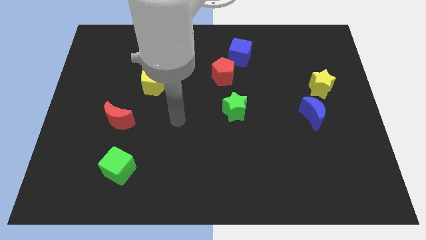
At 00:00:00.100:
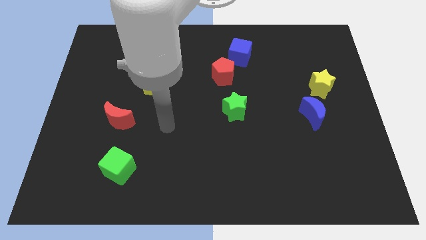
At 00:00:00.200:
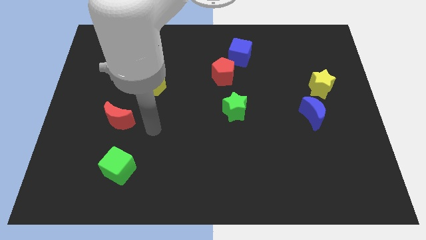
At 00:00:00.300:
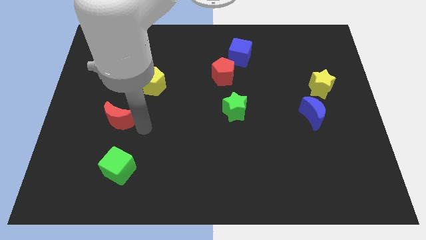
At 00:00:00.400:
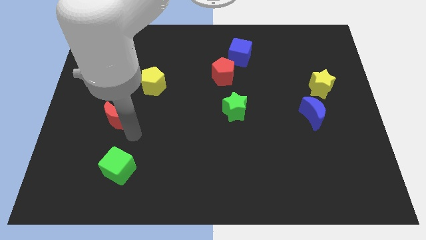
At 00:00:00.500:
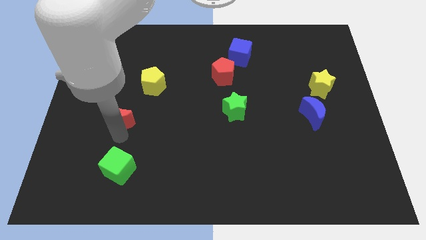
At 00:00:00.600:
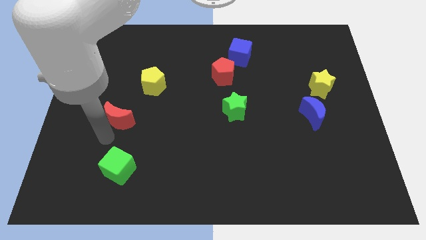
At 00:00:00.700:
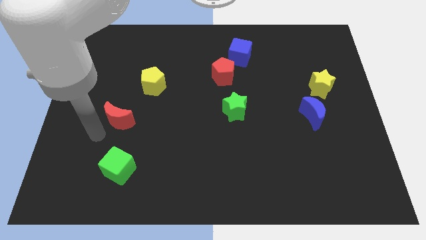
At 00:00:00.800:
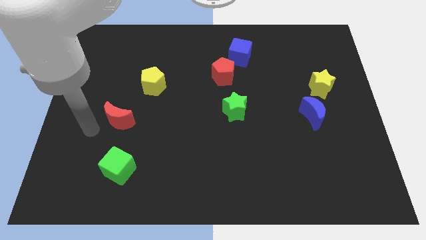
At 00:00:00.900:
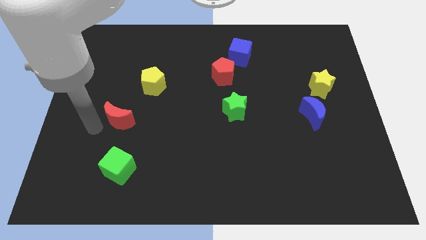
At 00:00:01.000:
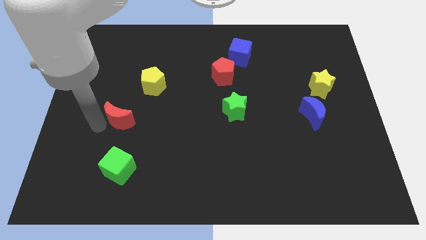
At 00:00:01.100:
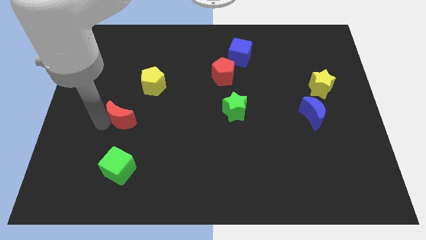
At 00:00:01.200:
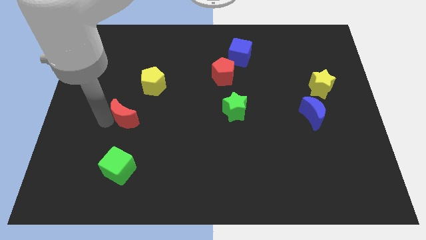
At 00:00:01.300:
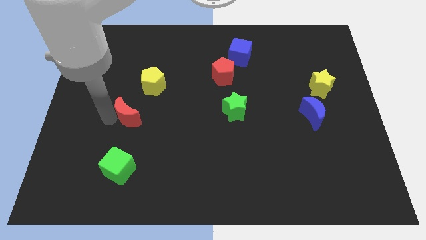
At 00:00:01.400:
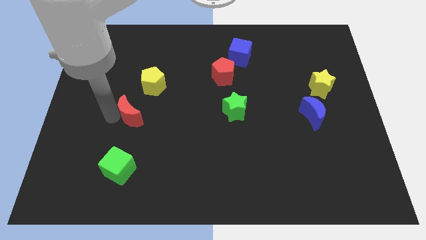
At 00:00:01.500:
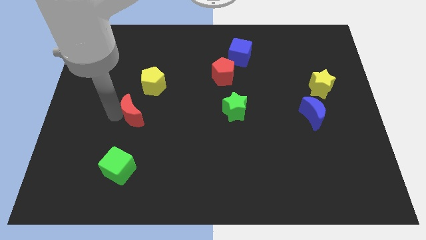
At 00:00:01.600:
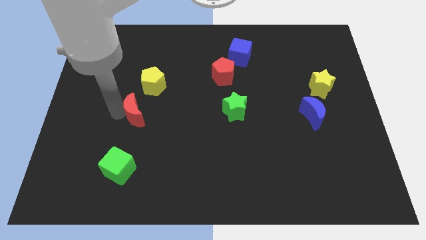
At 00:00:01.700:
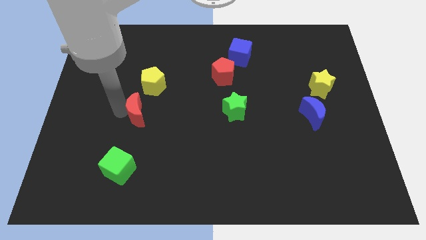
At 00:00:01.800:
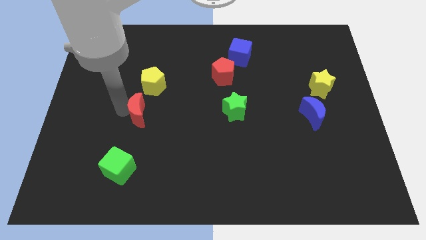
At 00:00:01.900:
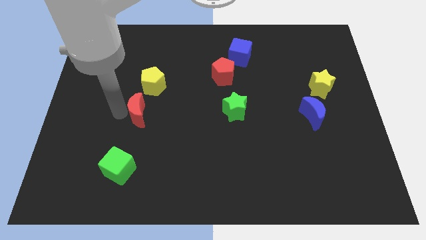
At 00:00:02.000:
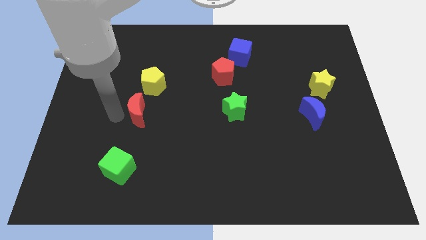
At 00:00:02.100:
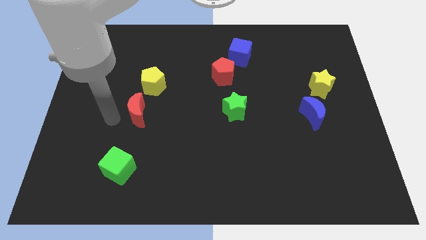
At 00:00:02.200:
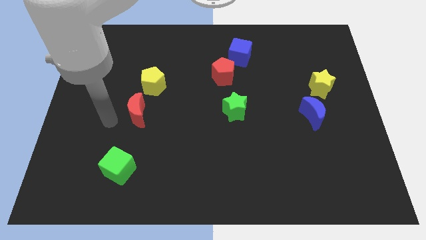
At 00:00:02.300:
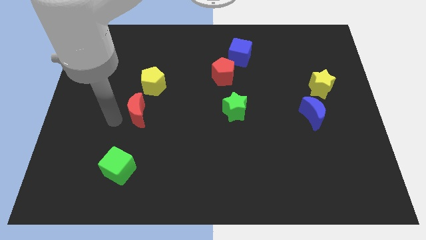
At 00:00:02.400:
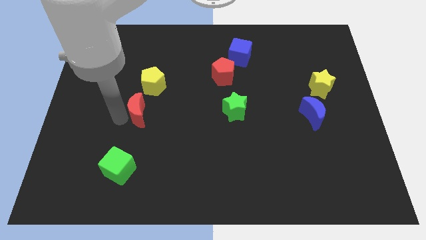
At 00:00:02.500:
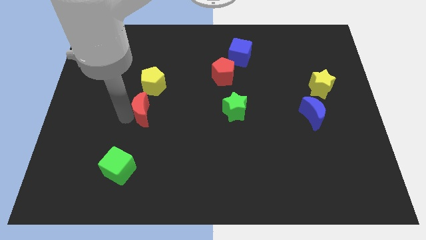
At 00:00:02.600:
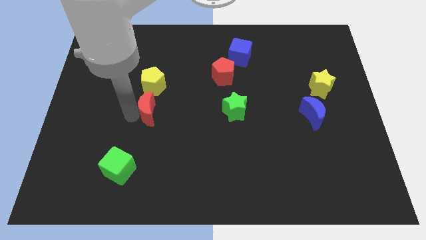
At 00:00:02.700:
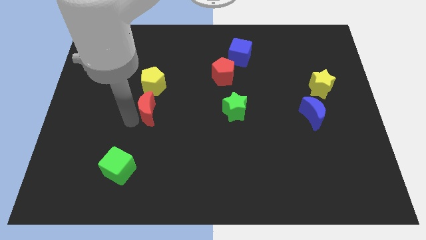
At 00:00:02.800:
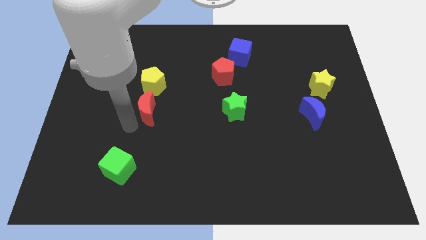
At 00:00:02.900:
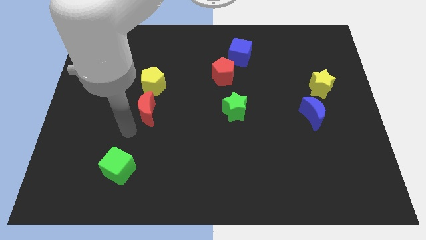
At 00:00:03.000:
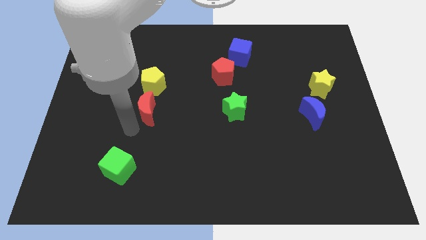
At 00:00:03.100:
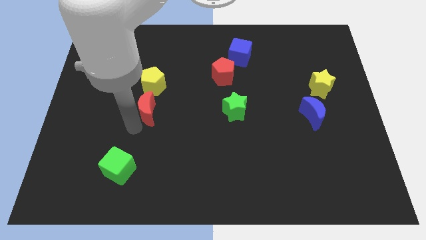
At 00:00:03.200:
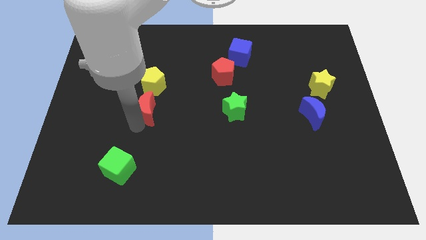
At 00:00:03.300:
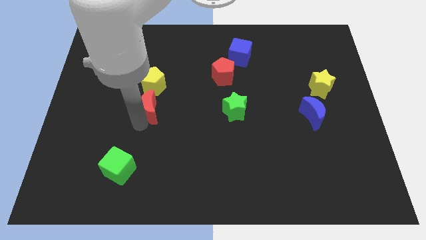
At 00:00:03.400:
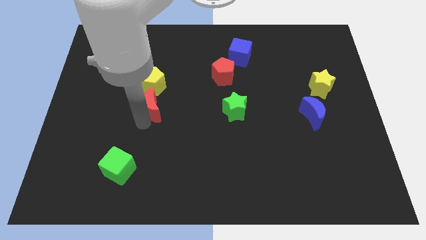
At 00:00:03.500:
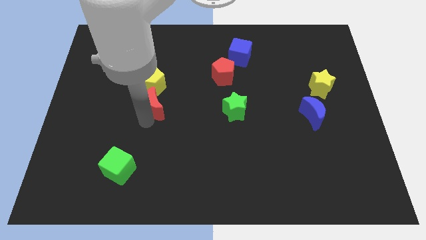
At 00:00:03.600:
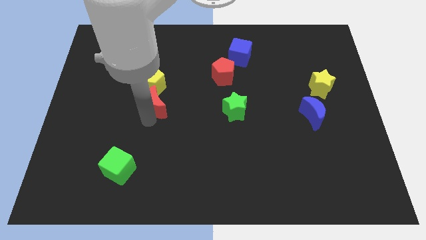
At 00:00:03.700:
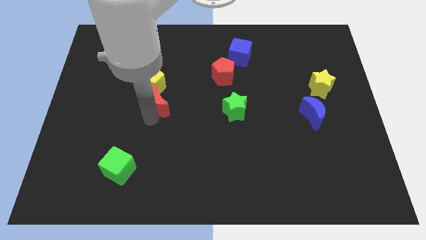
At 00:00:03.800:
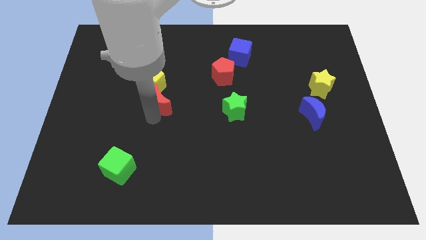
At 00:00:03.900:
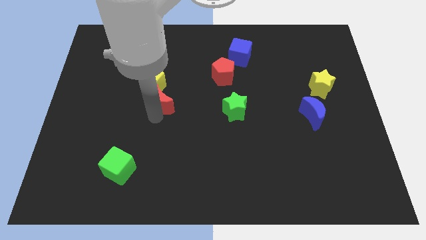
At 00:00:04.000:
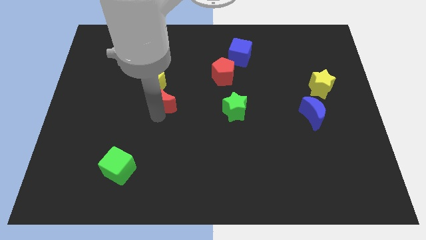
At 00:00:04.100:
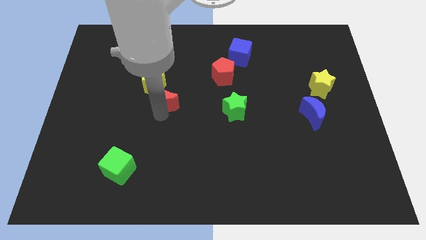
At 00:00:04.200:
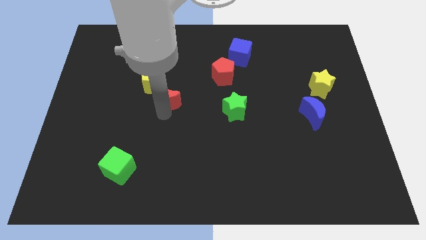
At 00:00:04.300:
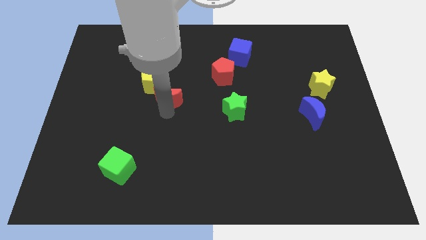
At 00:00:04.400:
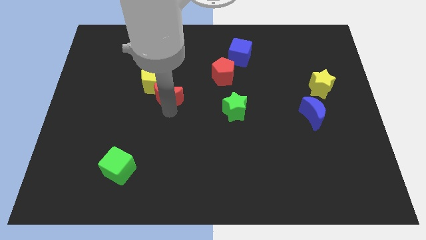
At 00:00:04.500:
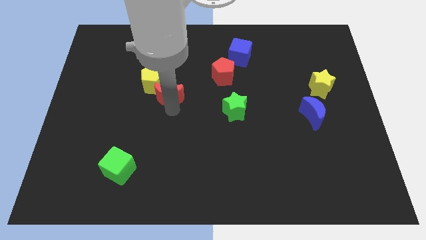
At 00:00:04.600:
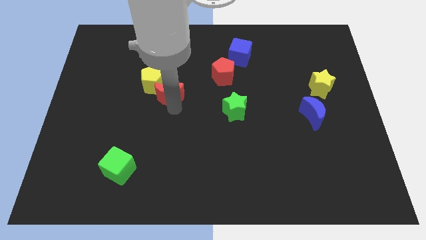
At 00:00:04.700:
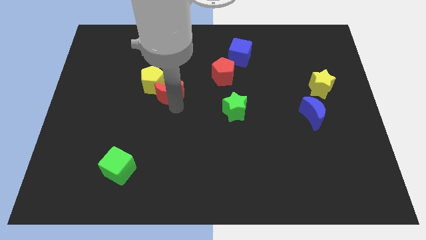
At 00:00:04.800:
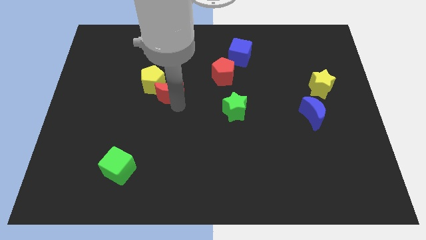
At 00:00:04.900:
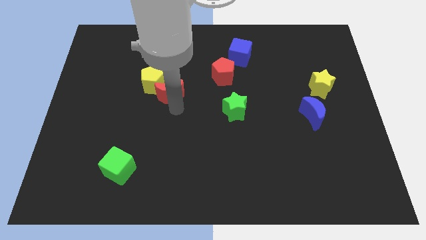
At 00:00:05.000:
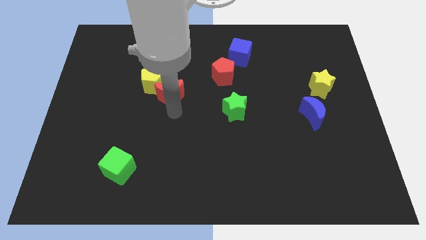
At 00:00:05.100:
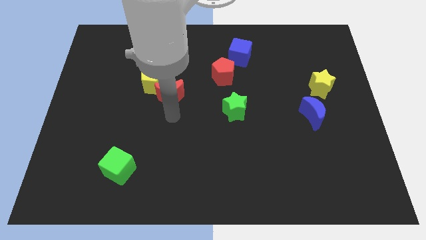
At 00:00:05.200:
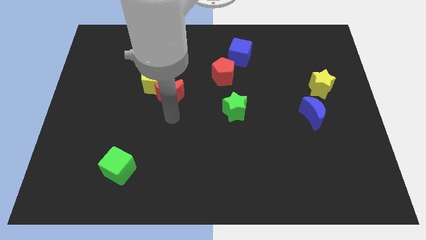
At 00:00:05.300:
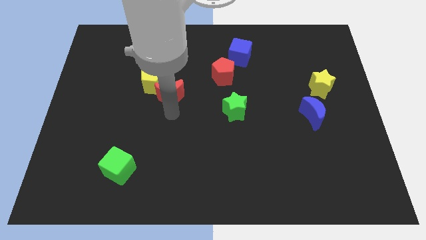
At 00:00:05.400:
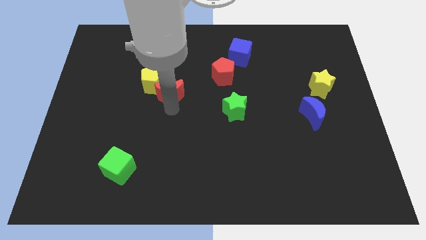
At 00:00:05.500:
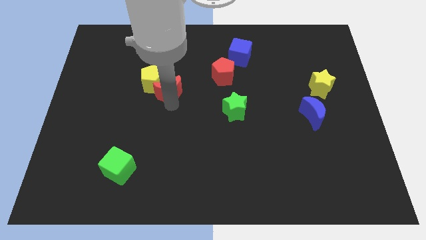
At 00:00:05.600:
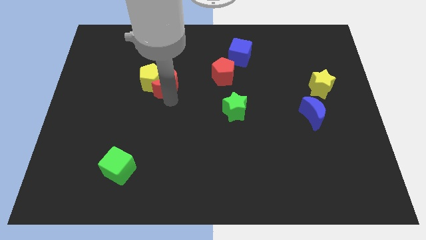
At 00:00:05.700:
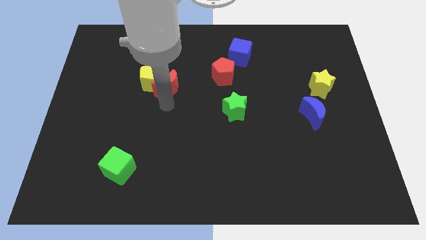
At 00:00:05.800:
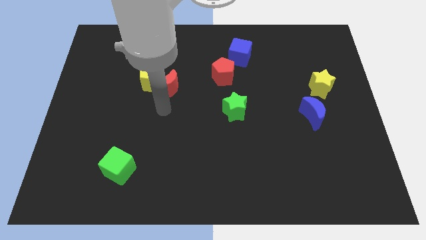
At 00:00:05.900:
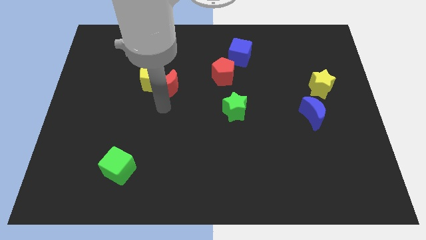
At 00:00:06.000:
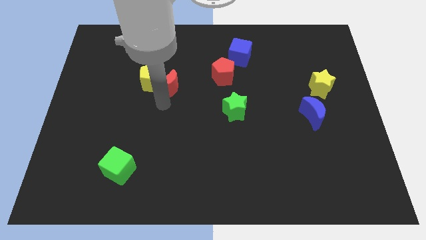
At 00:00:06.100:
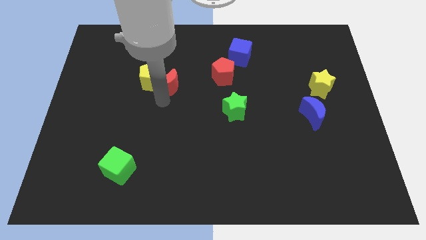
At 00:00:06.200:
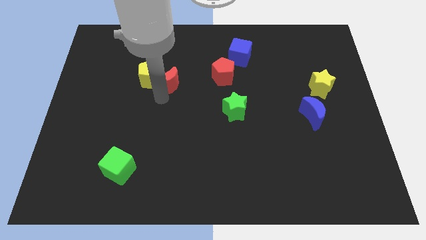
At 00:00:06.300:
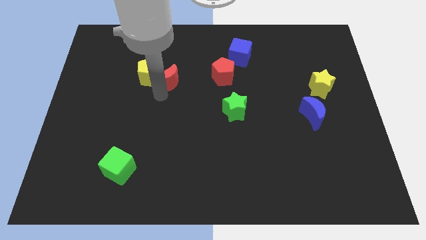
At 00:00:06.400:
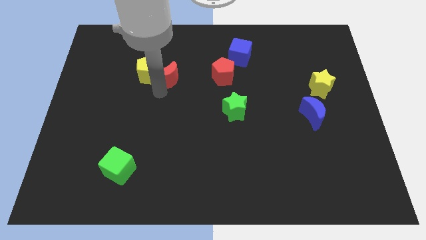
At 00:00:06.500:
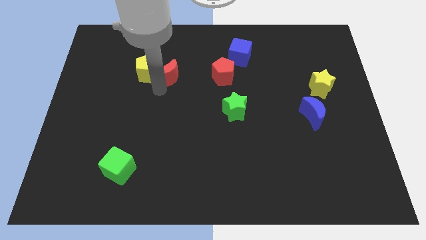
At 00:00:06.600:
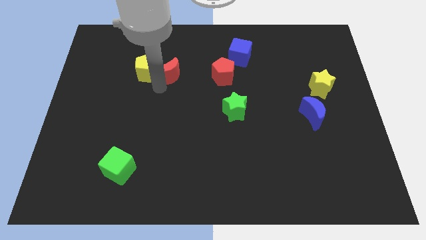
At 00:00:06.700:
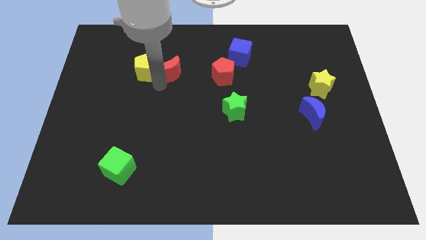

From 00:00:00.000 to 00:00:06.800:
push the red moon to the top right of the yellow pentagon
